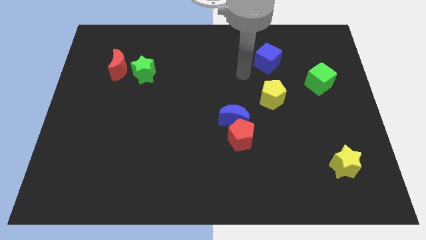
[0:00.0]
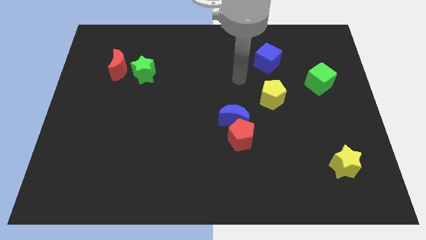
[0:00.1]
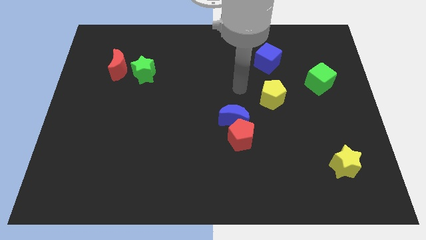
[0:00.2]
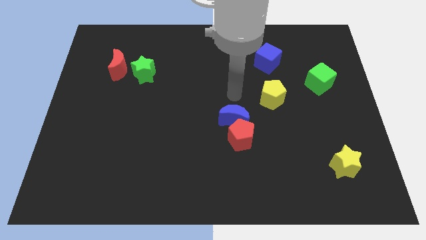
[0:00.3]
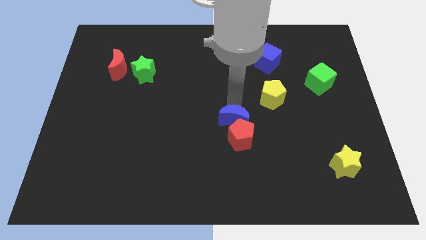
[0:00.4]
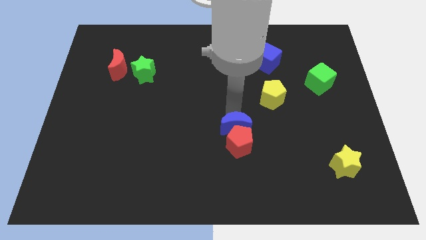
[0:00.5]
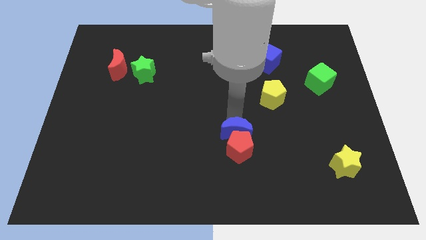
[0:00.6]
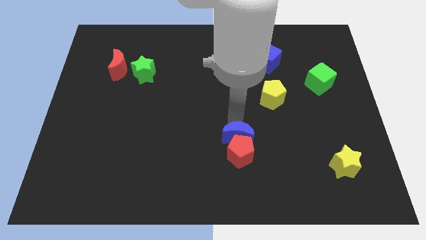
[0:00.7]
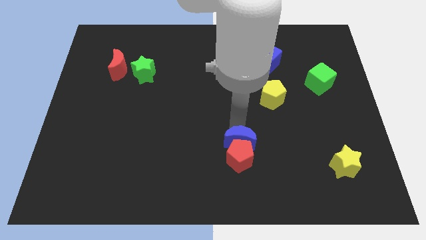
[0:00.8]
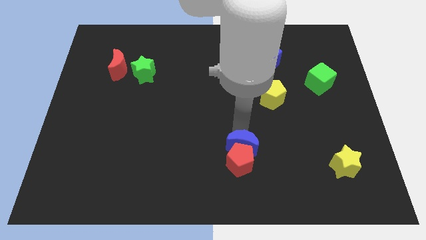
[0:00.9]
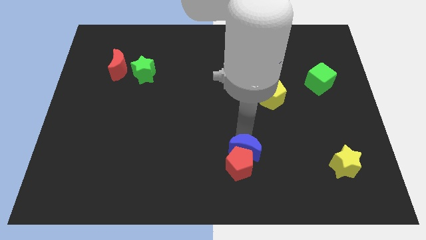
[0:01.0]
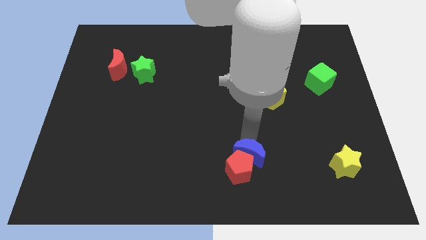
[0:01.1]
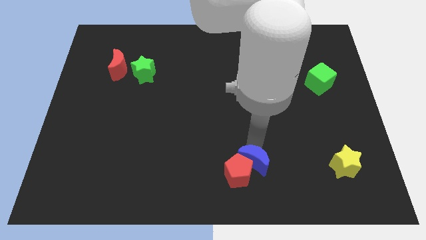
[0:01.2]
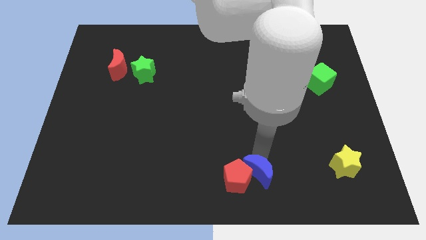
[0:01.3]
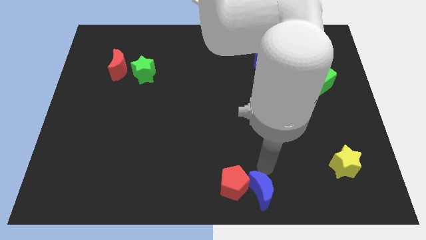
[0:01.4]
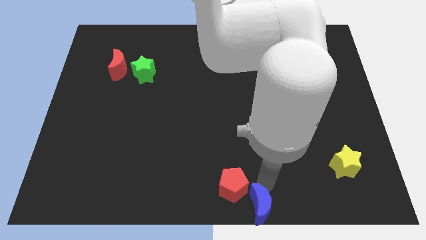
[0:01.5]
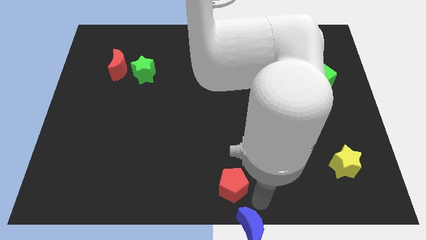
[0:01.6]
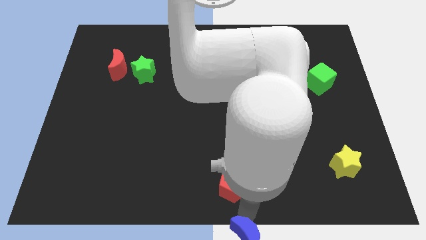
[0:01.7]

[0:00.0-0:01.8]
pull the red pentagon apart from the blue moon

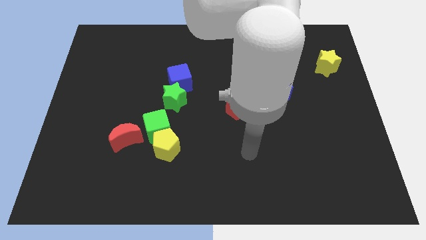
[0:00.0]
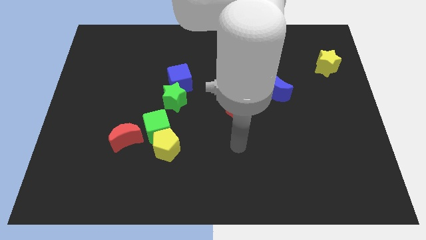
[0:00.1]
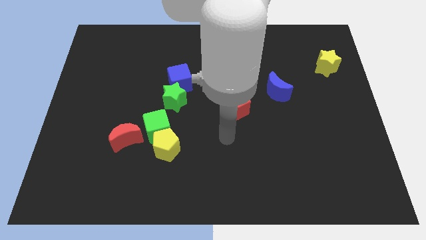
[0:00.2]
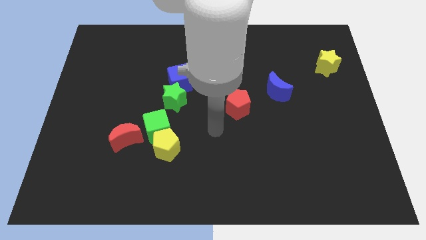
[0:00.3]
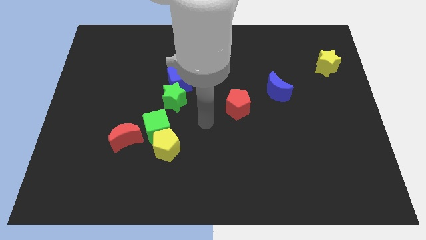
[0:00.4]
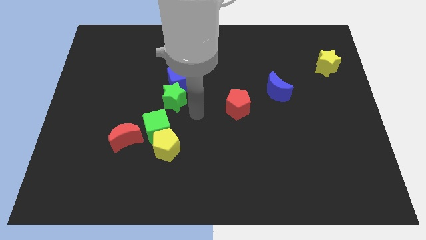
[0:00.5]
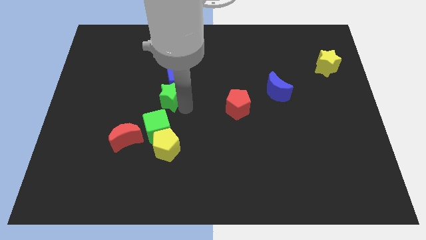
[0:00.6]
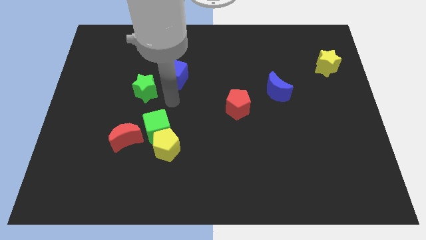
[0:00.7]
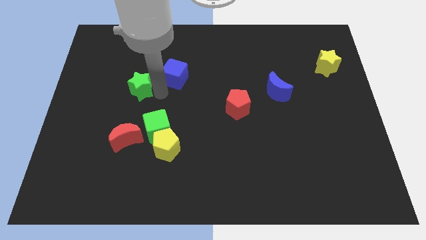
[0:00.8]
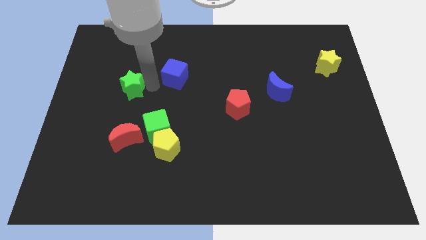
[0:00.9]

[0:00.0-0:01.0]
move the blue cube away from the green star

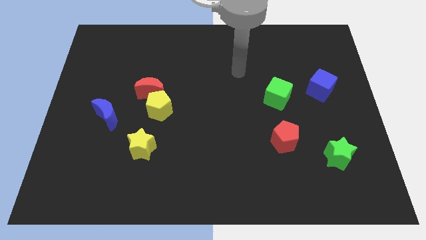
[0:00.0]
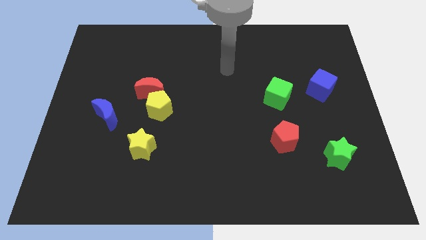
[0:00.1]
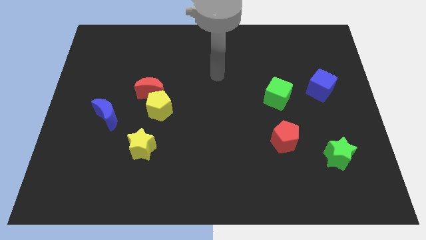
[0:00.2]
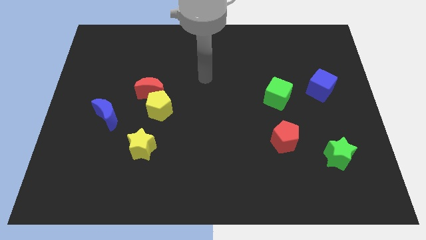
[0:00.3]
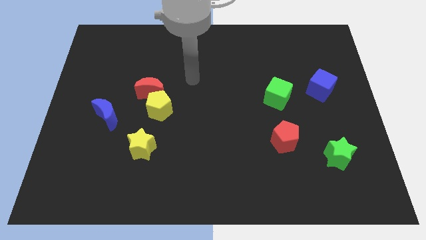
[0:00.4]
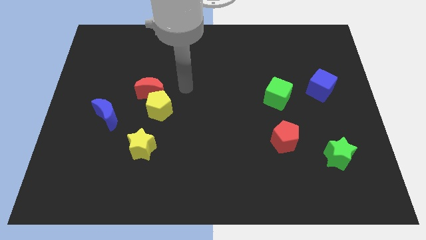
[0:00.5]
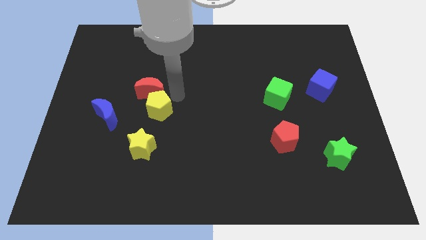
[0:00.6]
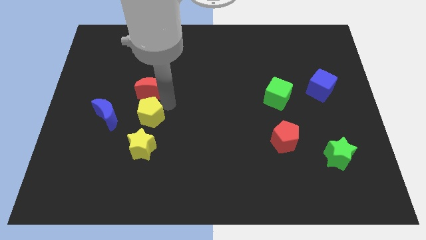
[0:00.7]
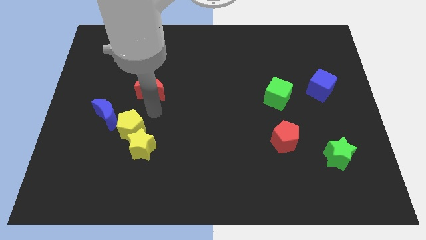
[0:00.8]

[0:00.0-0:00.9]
move the red moon away from the yellow pentagon

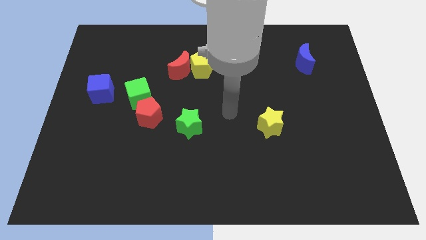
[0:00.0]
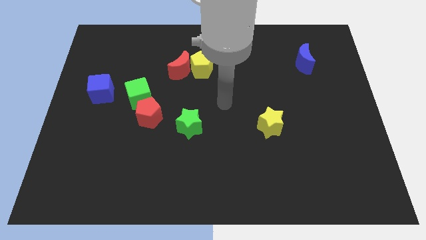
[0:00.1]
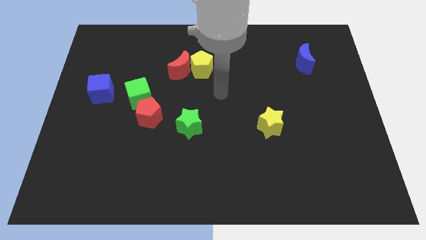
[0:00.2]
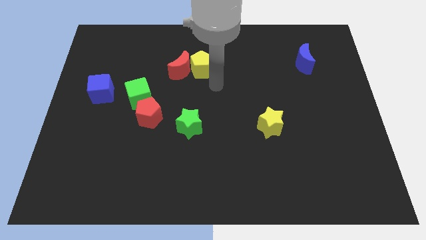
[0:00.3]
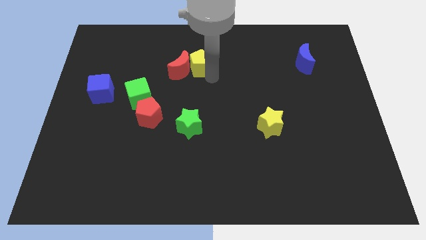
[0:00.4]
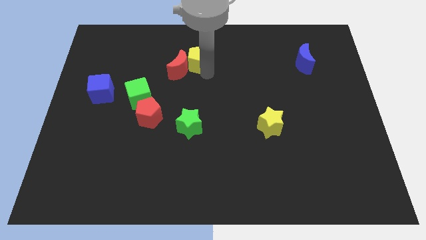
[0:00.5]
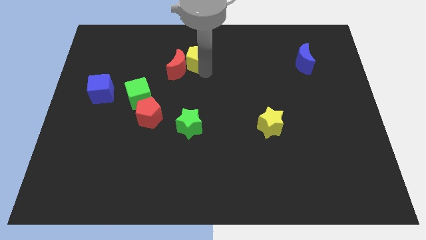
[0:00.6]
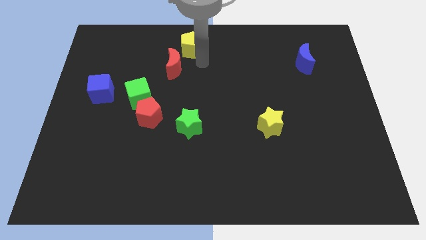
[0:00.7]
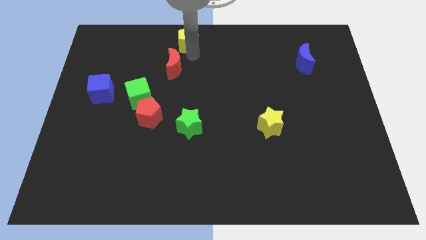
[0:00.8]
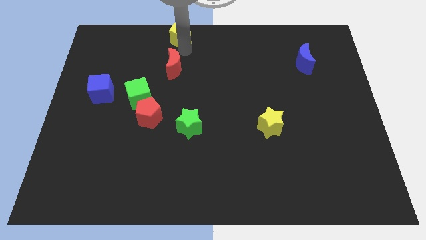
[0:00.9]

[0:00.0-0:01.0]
pull the red moon apart from the yellow pentagon

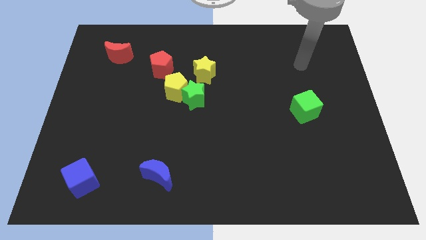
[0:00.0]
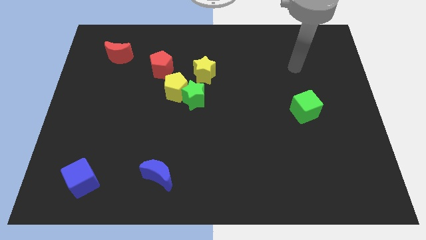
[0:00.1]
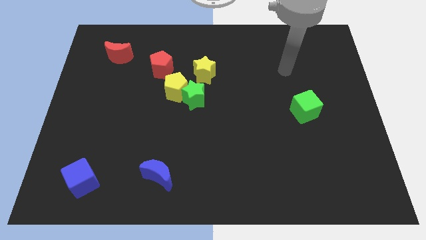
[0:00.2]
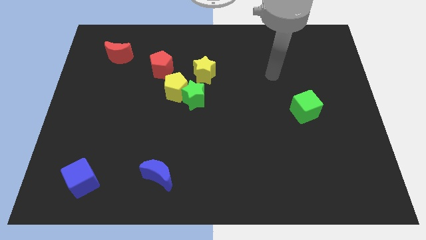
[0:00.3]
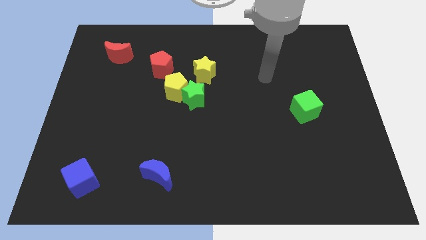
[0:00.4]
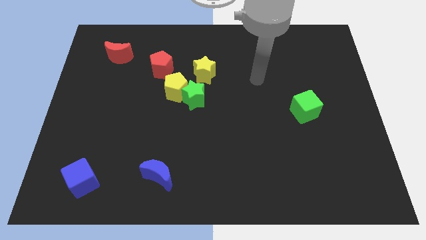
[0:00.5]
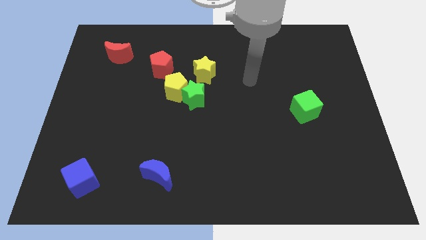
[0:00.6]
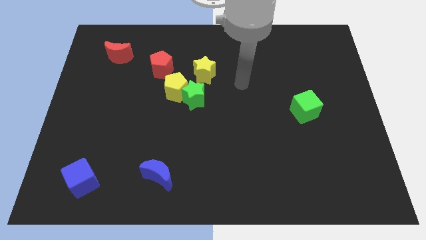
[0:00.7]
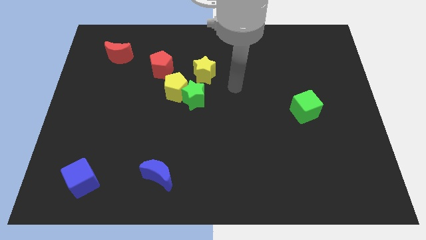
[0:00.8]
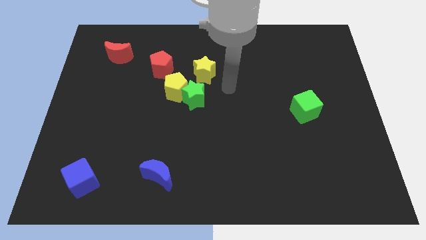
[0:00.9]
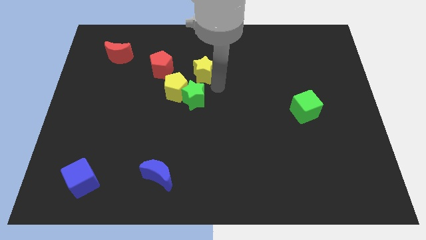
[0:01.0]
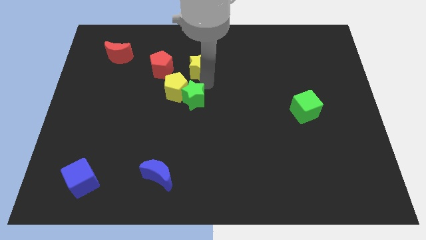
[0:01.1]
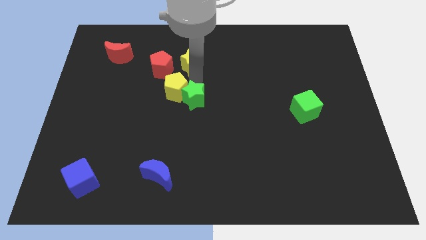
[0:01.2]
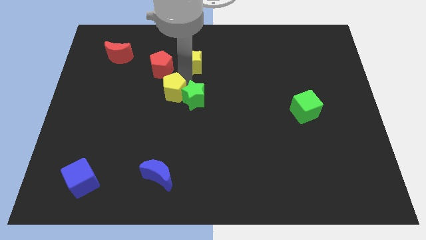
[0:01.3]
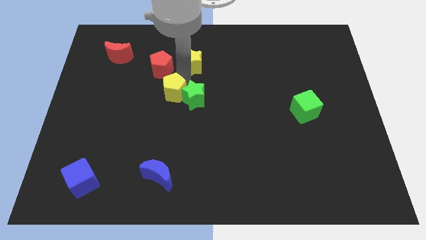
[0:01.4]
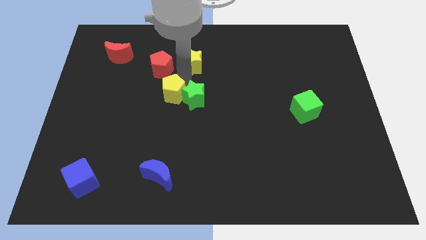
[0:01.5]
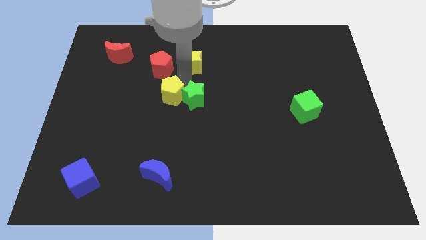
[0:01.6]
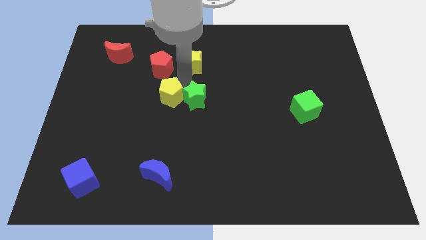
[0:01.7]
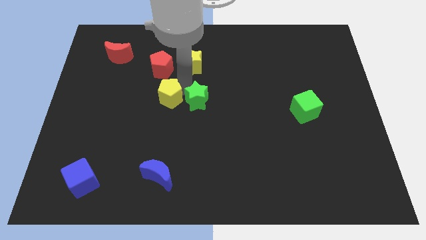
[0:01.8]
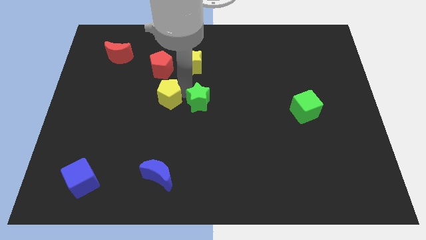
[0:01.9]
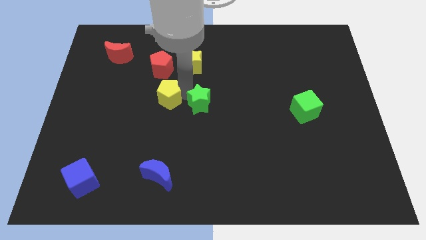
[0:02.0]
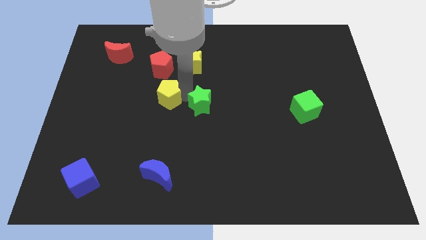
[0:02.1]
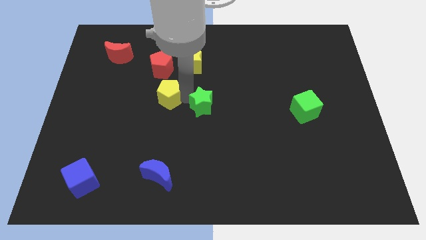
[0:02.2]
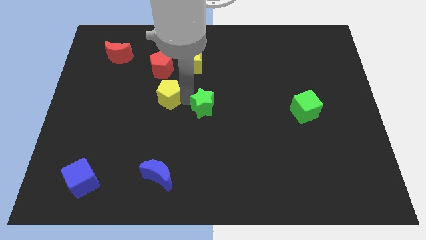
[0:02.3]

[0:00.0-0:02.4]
pull the green star apart from the yellow pentagon and yellow star

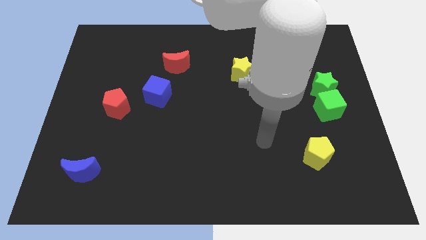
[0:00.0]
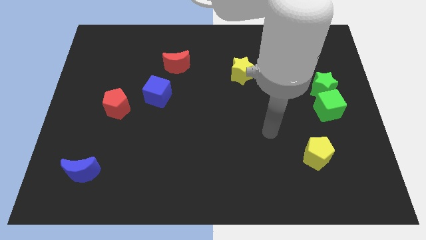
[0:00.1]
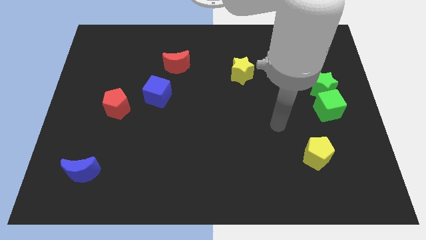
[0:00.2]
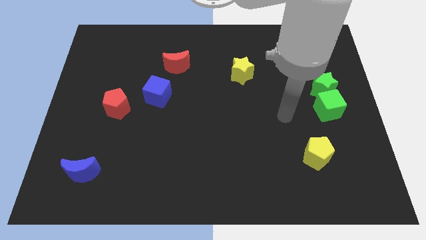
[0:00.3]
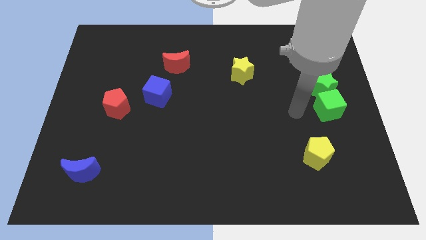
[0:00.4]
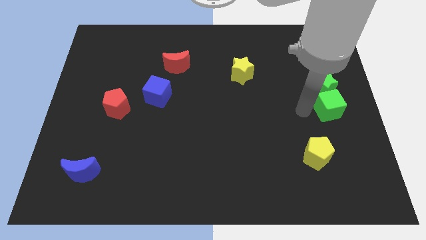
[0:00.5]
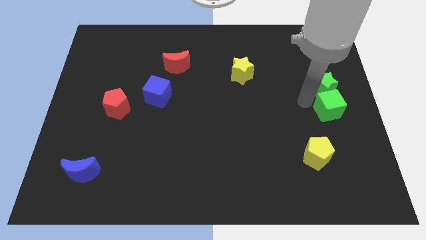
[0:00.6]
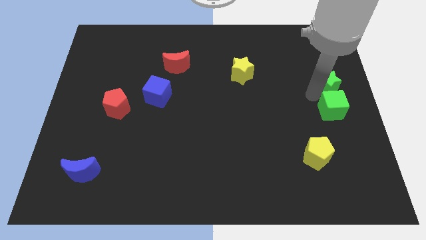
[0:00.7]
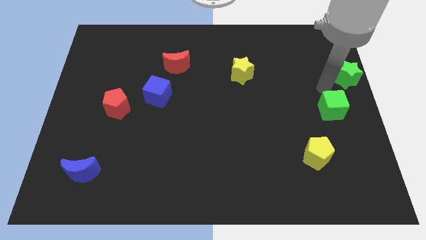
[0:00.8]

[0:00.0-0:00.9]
separate the green cube from the green star

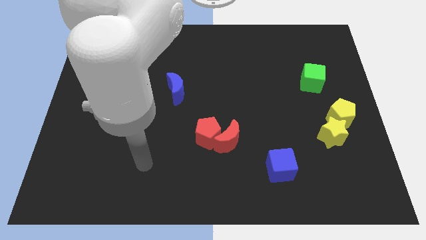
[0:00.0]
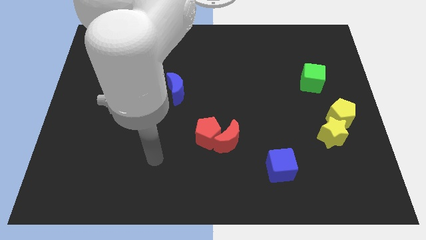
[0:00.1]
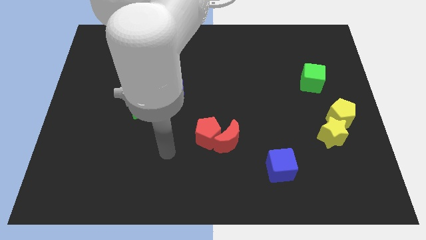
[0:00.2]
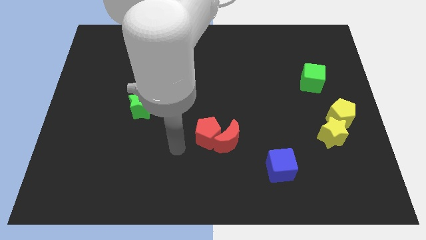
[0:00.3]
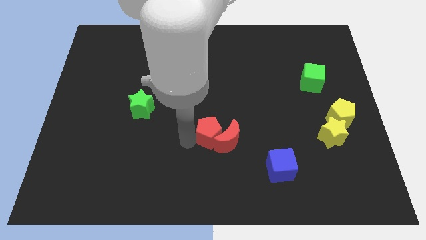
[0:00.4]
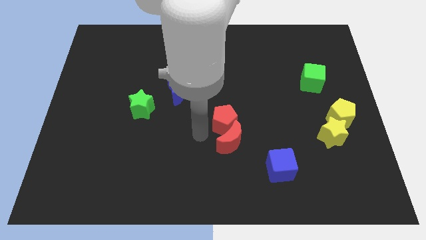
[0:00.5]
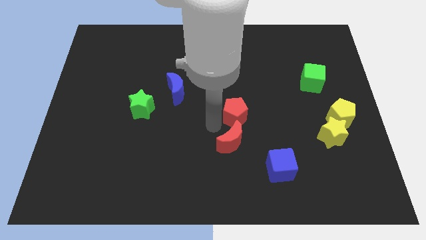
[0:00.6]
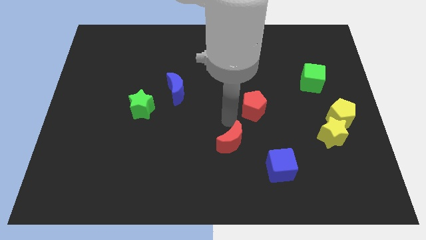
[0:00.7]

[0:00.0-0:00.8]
separate the red moon from the red pentagon

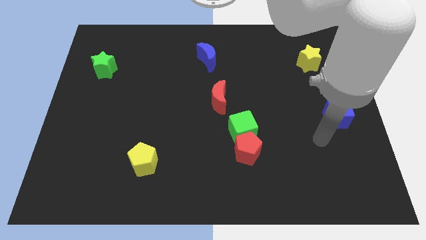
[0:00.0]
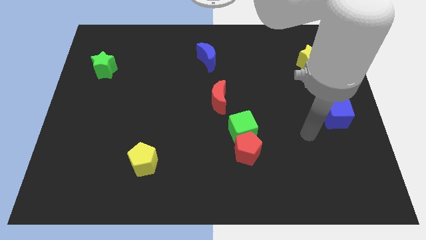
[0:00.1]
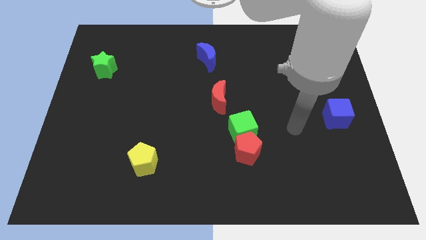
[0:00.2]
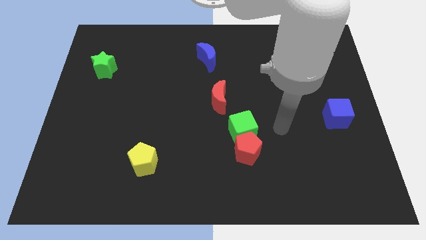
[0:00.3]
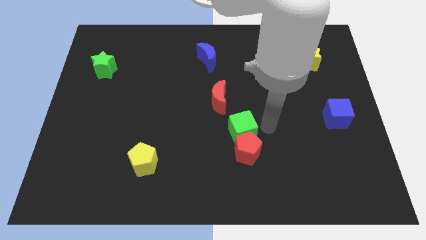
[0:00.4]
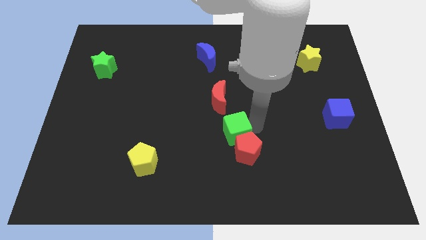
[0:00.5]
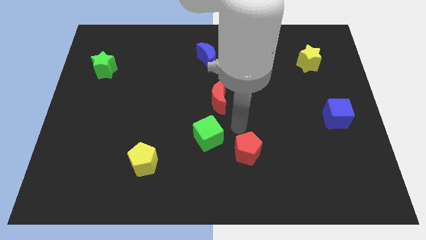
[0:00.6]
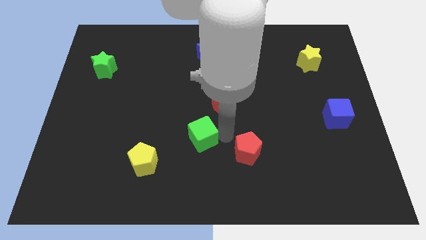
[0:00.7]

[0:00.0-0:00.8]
separate the red pentagon from the green cube
